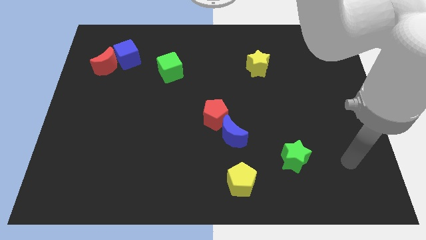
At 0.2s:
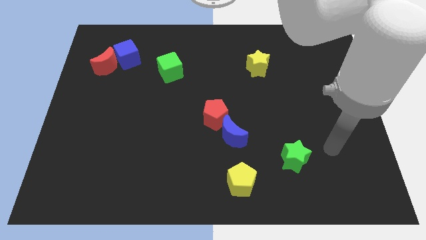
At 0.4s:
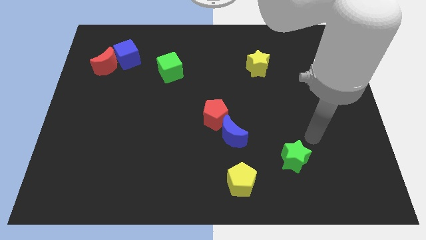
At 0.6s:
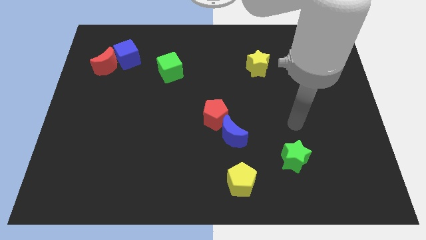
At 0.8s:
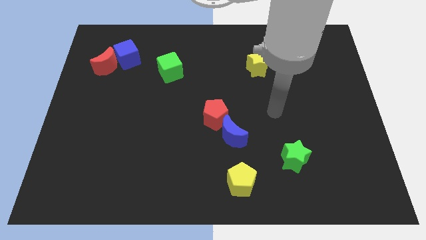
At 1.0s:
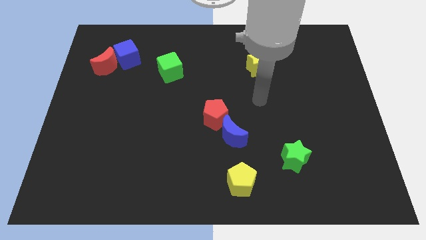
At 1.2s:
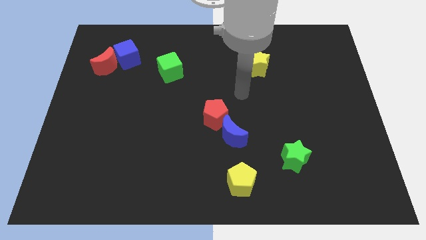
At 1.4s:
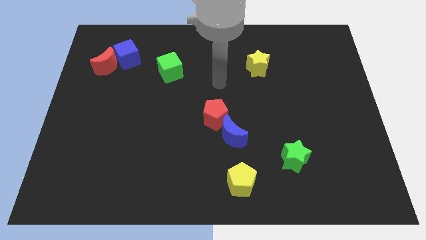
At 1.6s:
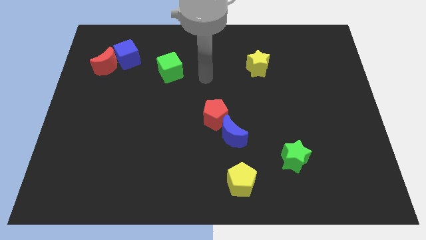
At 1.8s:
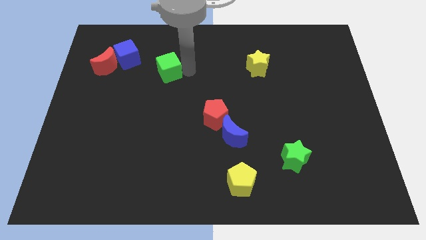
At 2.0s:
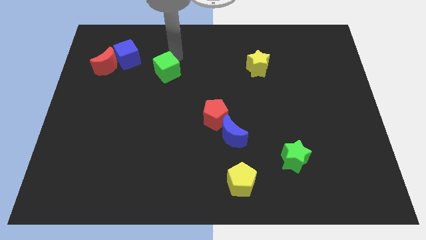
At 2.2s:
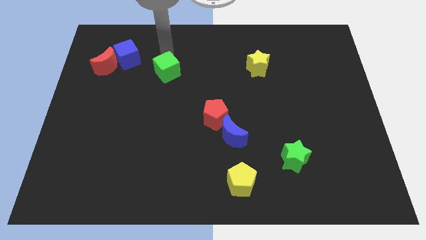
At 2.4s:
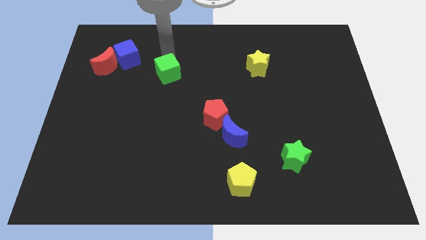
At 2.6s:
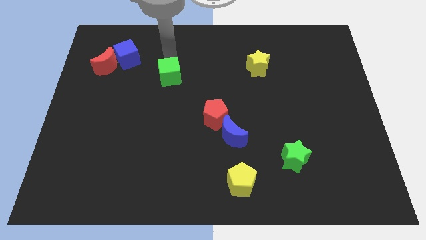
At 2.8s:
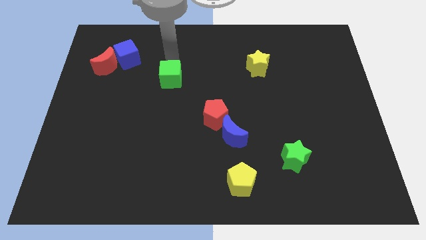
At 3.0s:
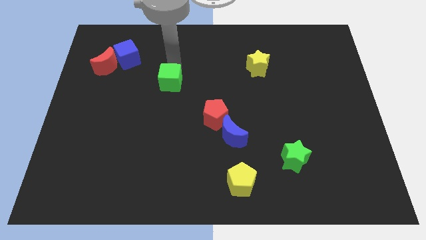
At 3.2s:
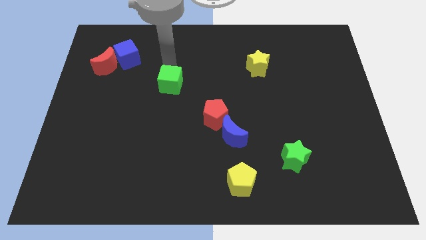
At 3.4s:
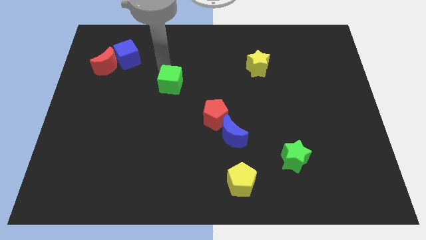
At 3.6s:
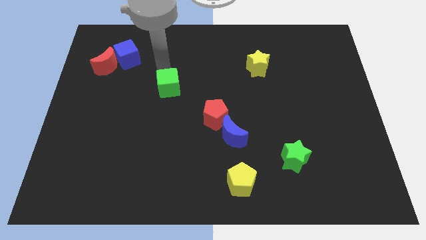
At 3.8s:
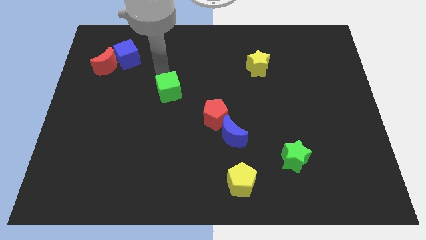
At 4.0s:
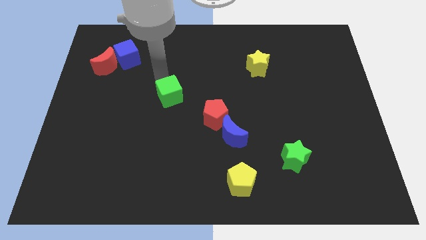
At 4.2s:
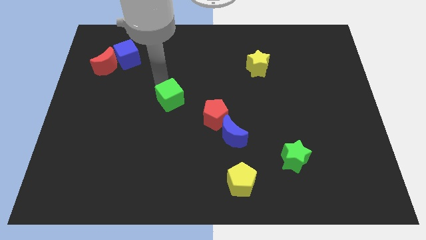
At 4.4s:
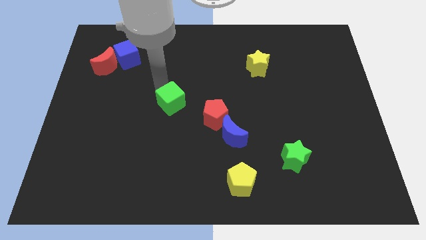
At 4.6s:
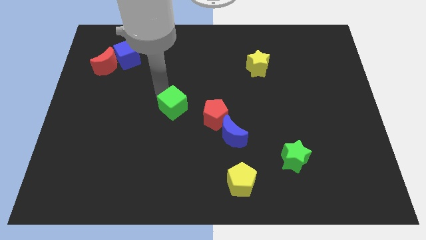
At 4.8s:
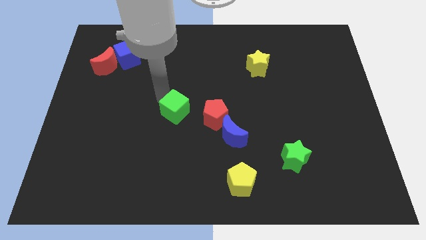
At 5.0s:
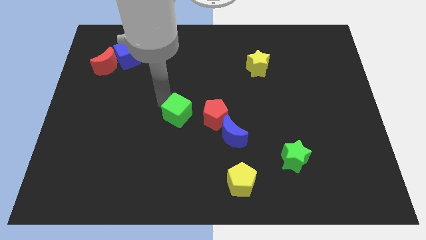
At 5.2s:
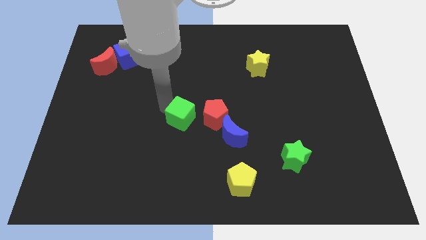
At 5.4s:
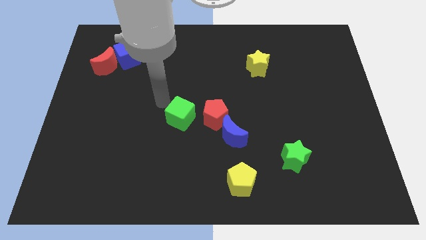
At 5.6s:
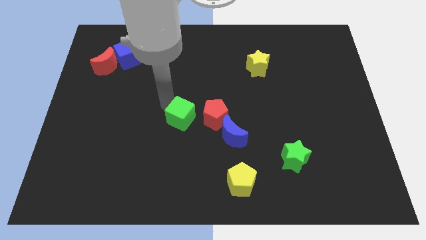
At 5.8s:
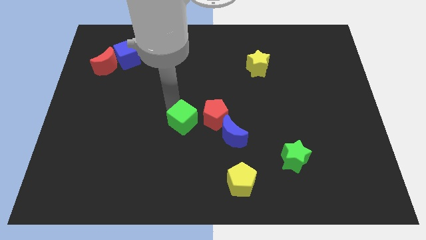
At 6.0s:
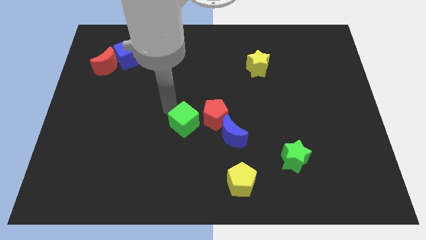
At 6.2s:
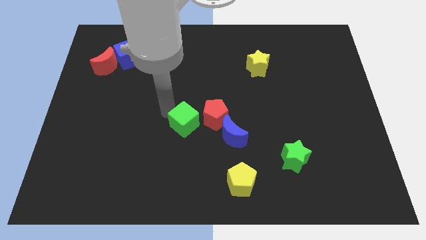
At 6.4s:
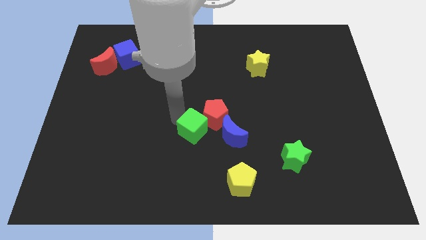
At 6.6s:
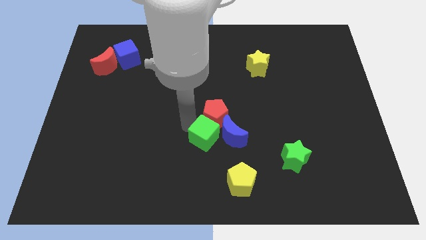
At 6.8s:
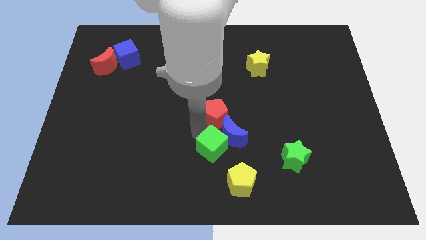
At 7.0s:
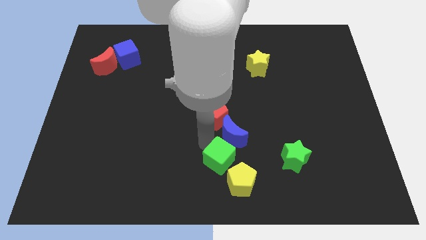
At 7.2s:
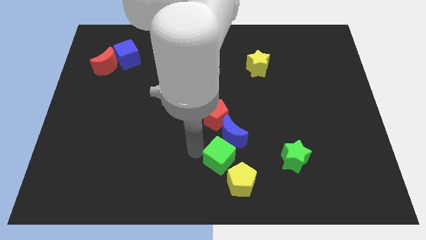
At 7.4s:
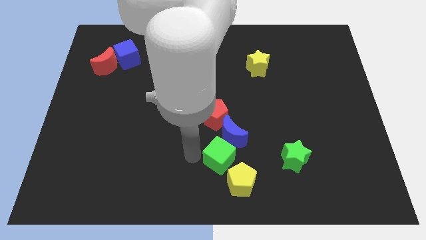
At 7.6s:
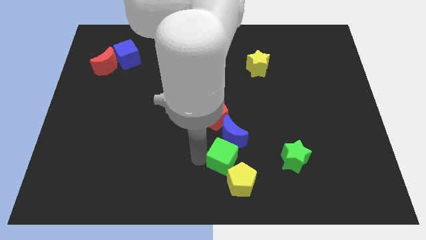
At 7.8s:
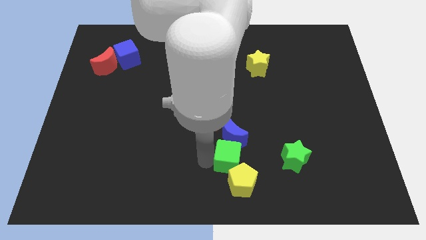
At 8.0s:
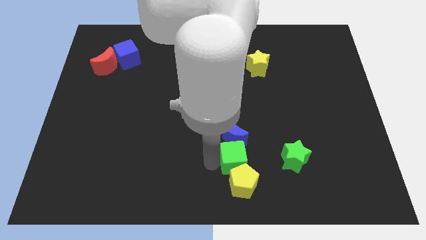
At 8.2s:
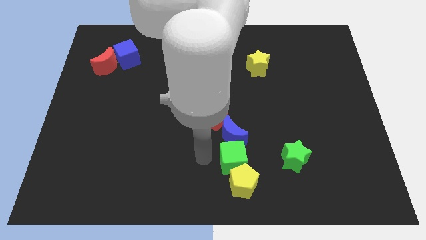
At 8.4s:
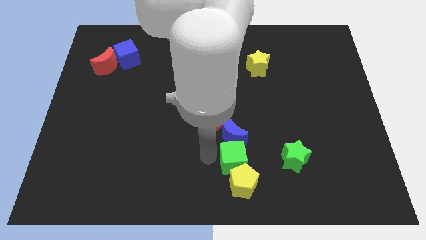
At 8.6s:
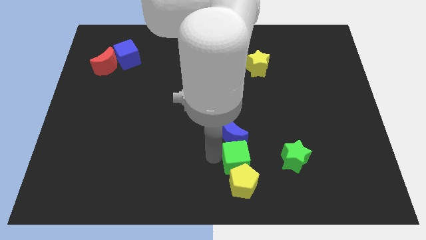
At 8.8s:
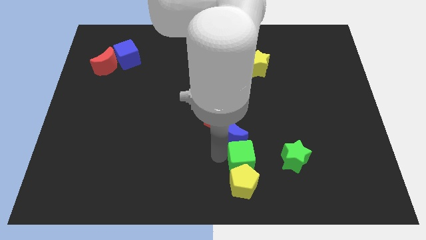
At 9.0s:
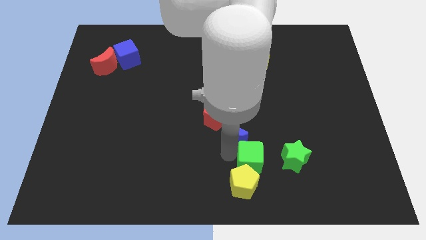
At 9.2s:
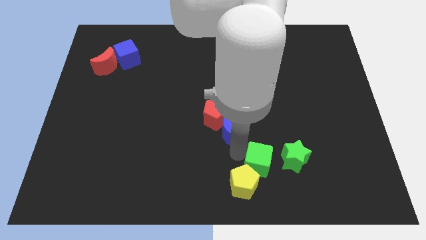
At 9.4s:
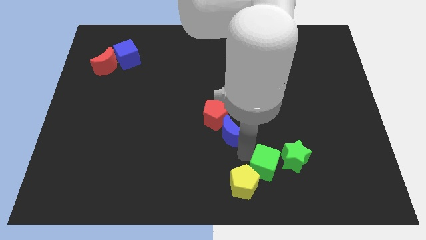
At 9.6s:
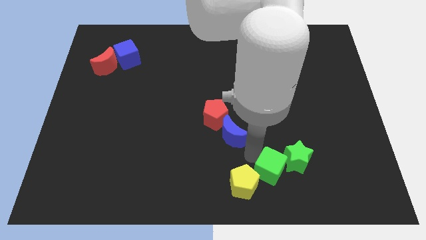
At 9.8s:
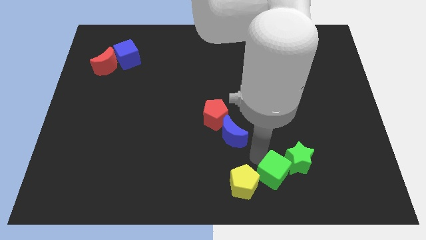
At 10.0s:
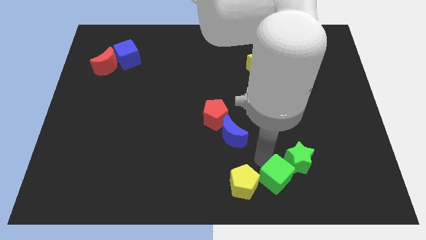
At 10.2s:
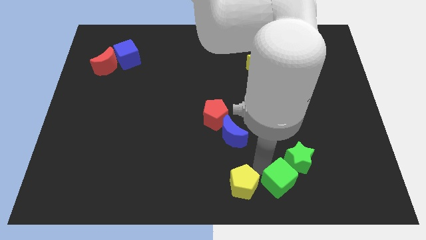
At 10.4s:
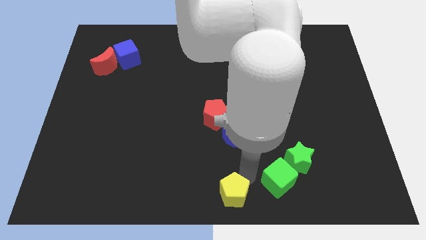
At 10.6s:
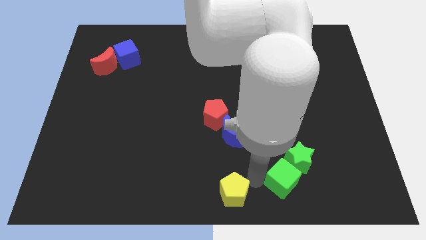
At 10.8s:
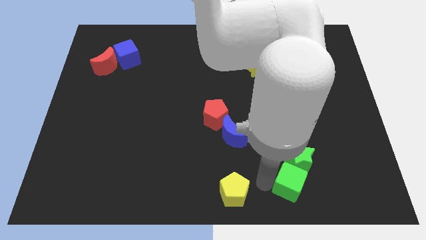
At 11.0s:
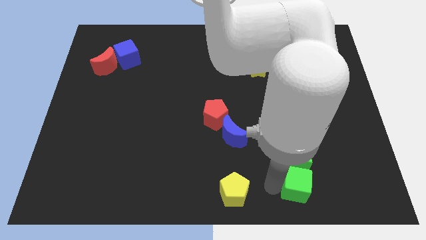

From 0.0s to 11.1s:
slide the green cube to the bottom right of the green star
